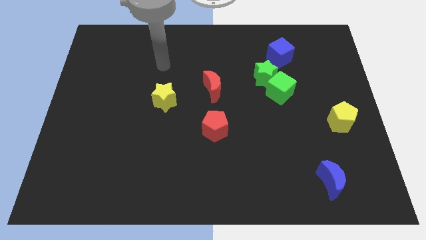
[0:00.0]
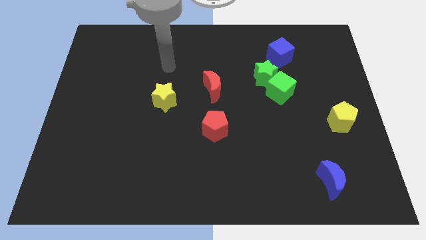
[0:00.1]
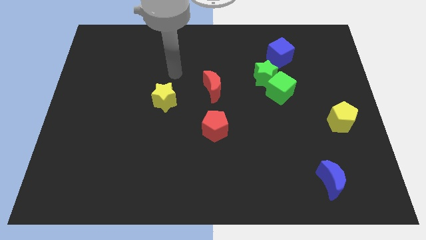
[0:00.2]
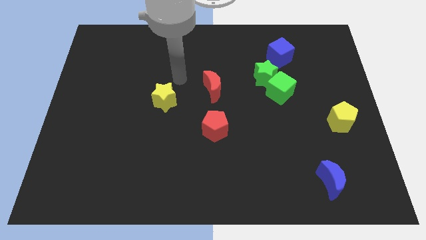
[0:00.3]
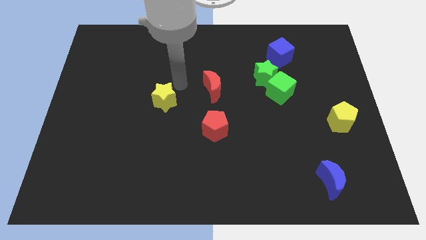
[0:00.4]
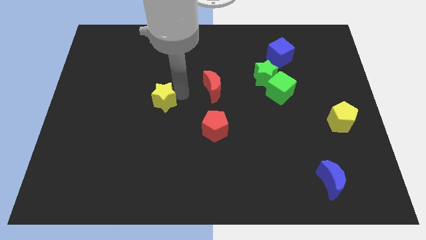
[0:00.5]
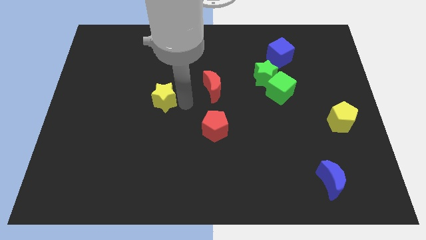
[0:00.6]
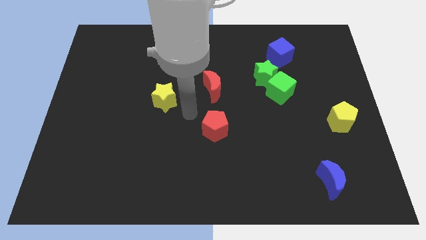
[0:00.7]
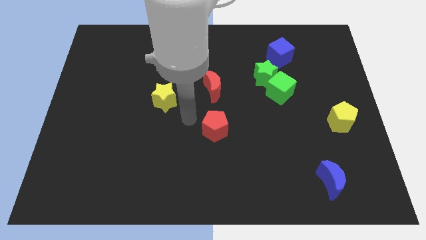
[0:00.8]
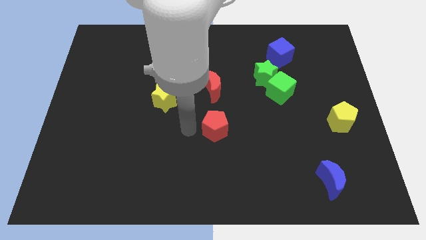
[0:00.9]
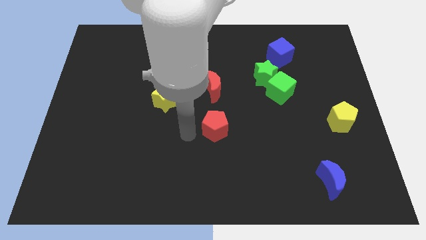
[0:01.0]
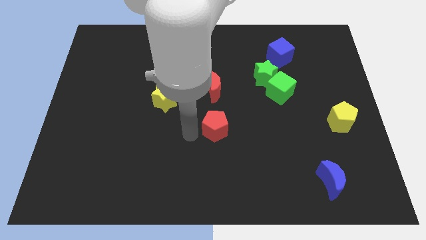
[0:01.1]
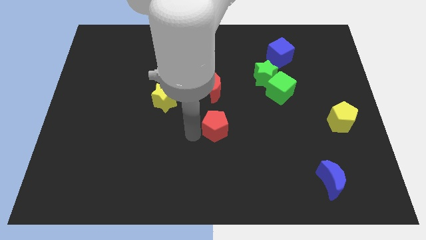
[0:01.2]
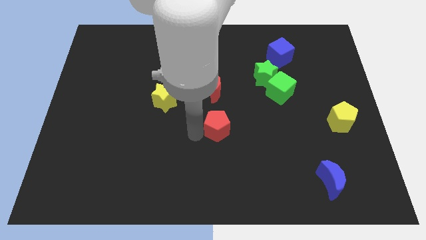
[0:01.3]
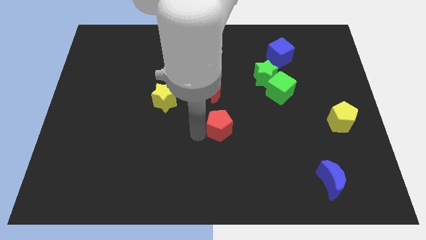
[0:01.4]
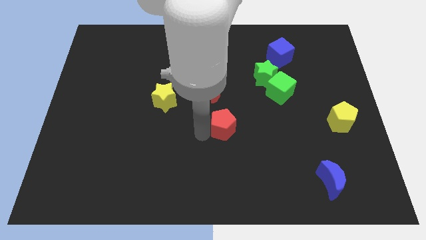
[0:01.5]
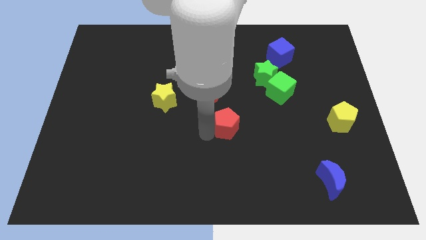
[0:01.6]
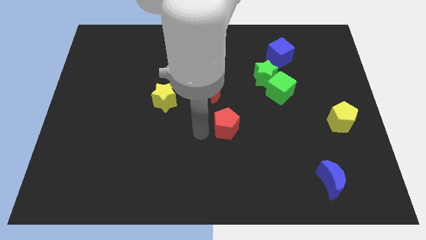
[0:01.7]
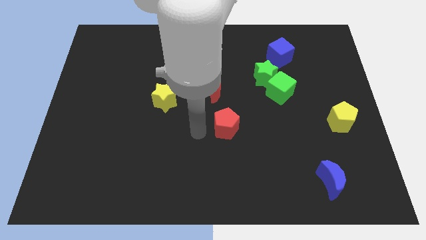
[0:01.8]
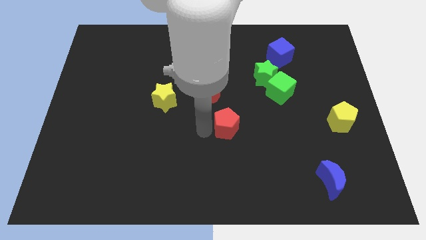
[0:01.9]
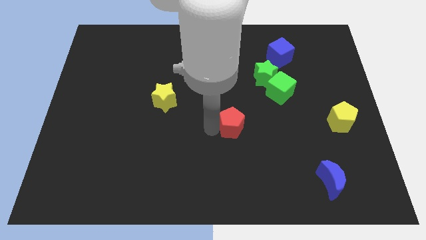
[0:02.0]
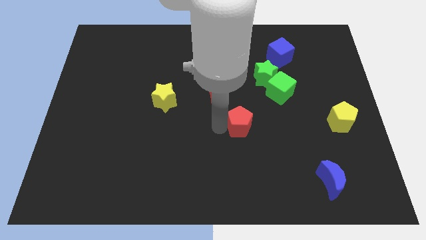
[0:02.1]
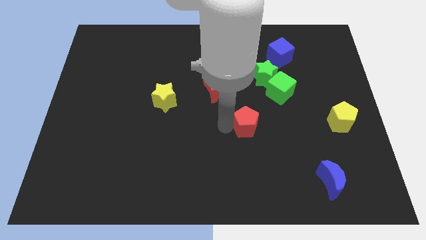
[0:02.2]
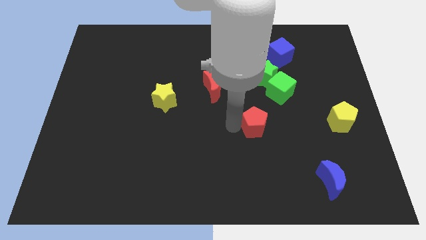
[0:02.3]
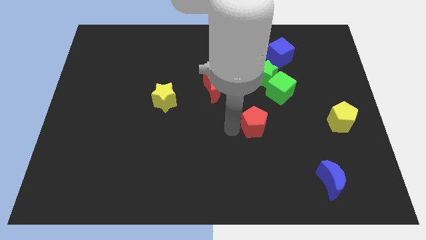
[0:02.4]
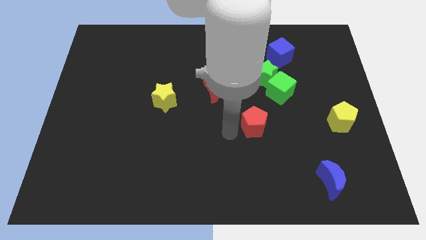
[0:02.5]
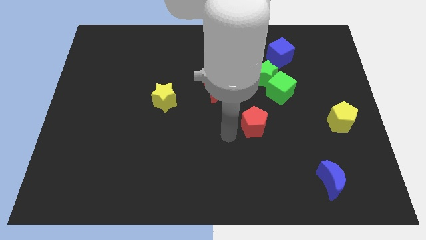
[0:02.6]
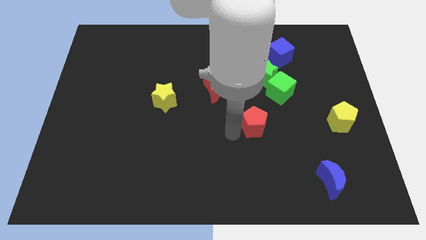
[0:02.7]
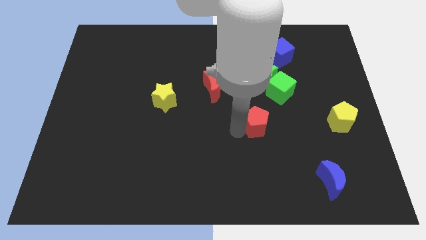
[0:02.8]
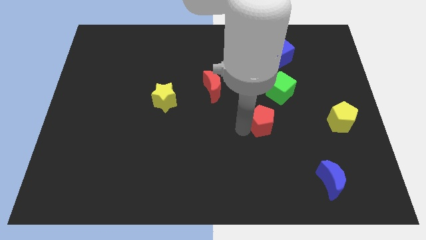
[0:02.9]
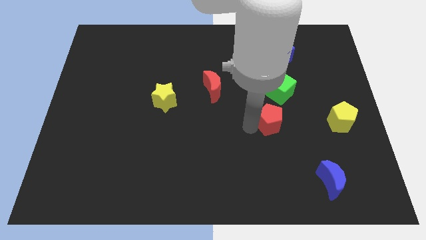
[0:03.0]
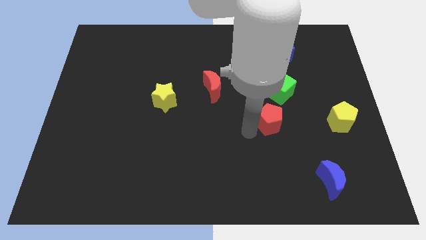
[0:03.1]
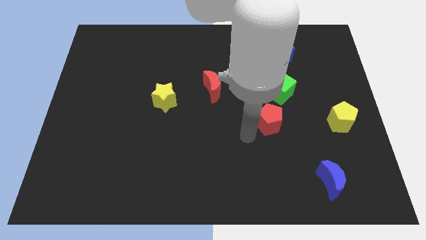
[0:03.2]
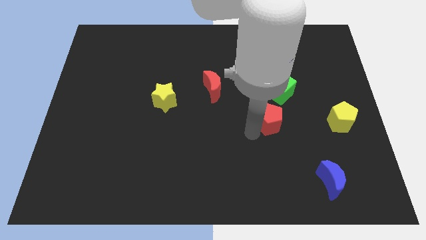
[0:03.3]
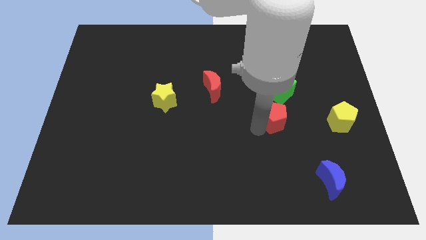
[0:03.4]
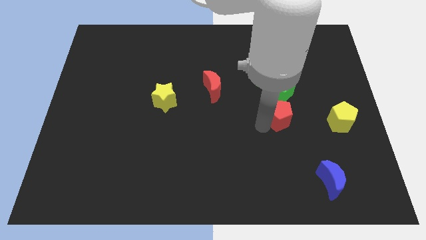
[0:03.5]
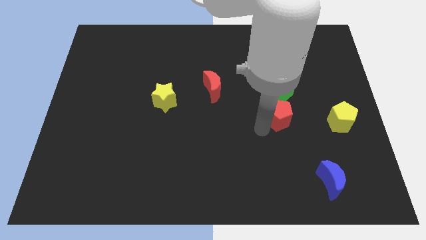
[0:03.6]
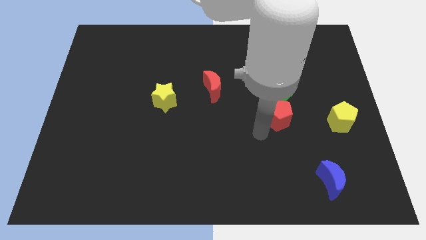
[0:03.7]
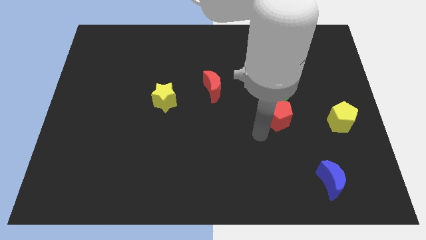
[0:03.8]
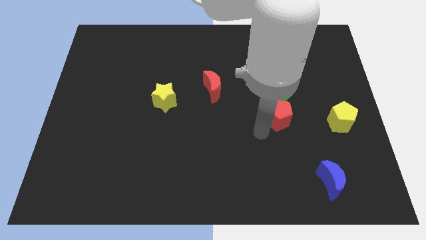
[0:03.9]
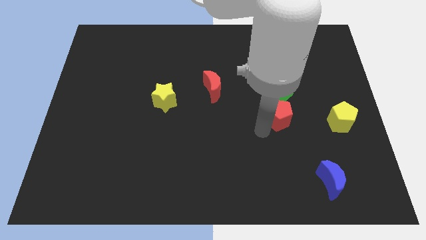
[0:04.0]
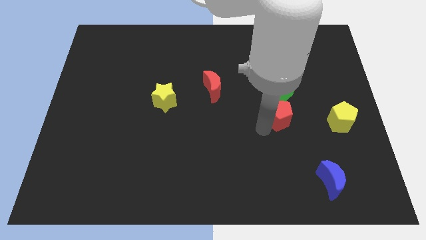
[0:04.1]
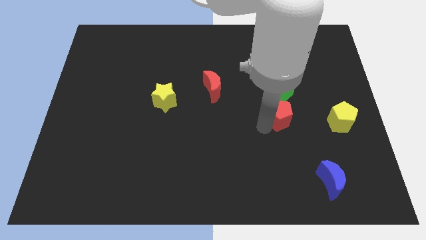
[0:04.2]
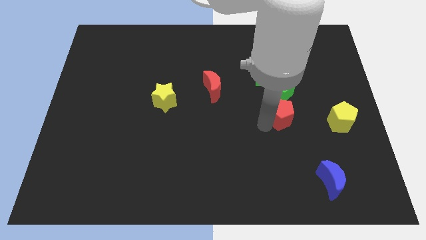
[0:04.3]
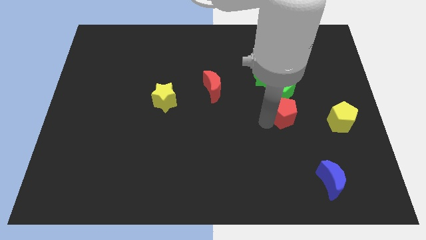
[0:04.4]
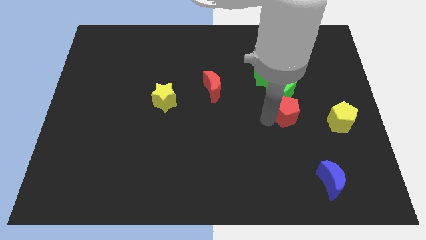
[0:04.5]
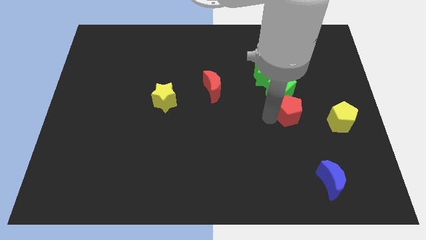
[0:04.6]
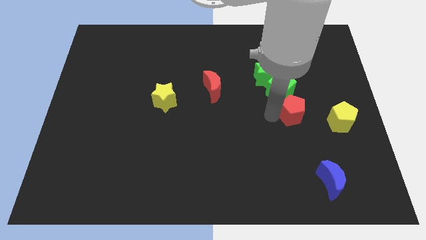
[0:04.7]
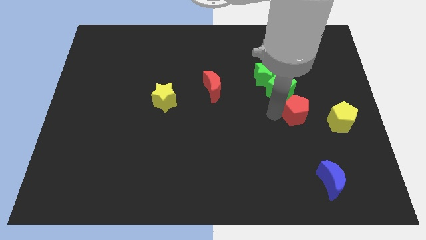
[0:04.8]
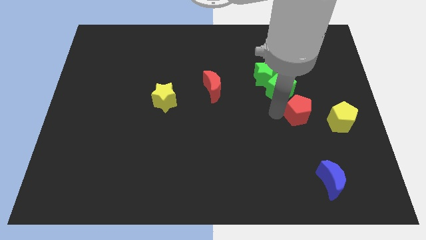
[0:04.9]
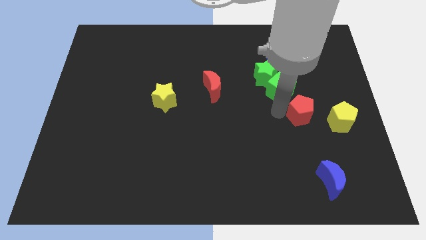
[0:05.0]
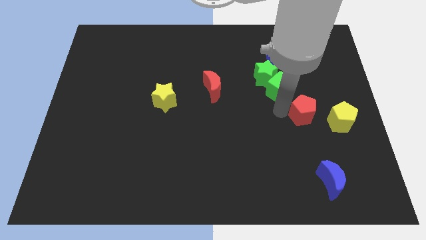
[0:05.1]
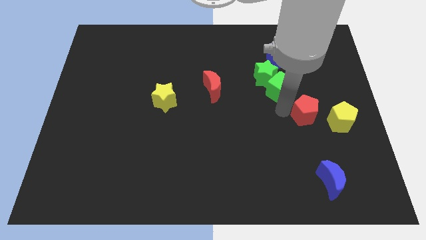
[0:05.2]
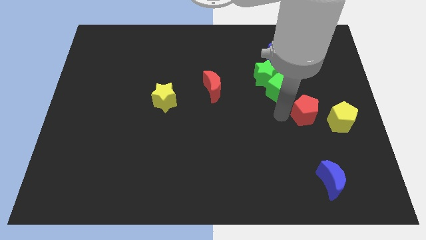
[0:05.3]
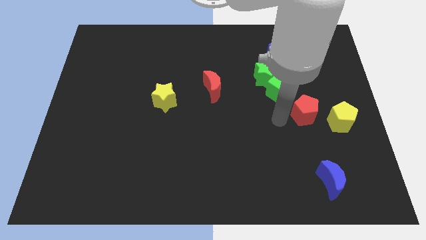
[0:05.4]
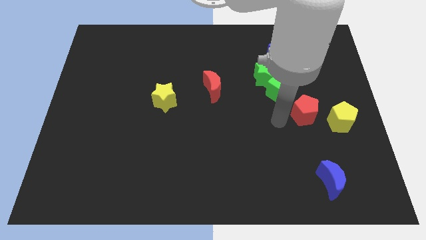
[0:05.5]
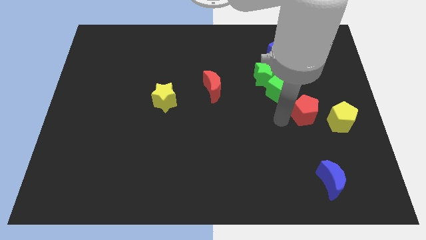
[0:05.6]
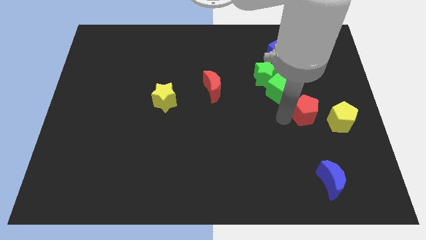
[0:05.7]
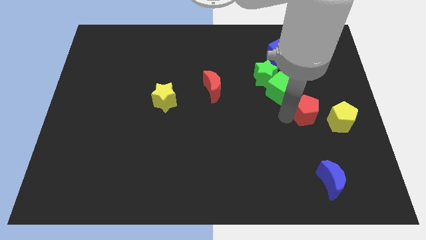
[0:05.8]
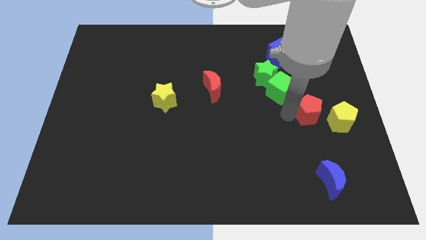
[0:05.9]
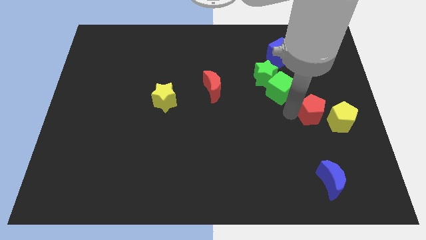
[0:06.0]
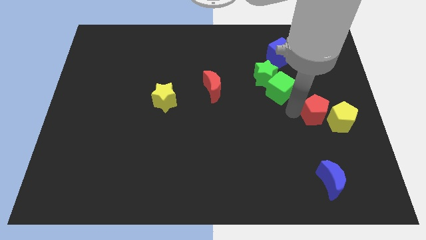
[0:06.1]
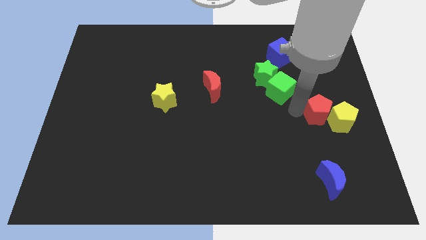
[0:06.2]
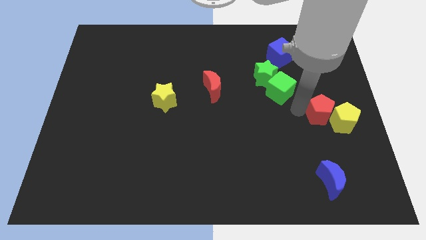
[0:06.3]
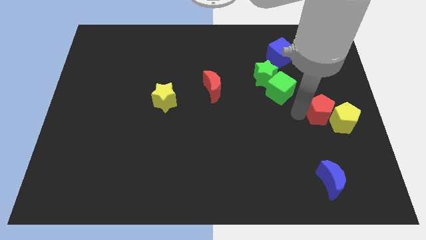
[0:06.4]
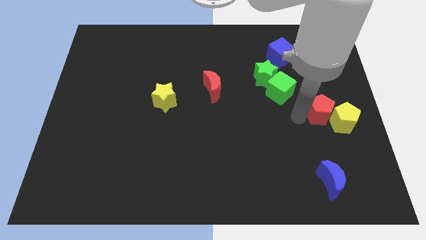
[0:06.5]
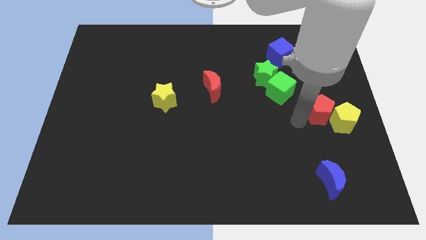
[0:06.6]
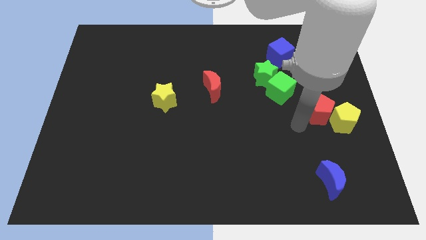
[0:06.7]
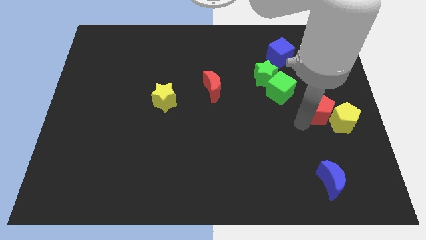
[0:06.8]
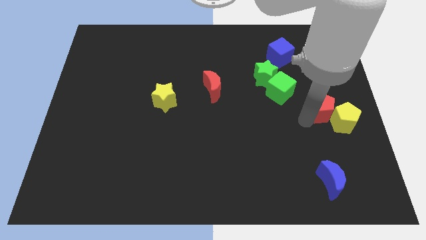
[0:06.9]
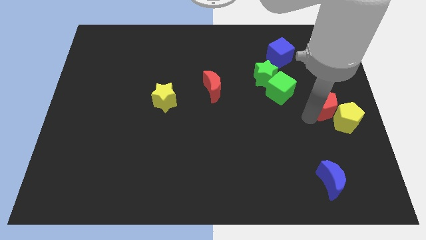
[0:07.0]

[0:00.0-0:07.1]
move the red pentagon to the right side of the board
